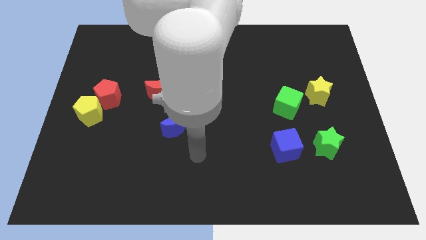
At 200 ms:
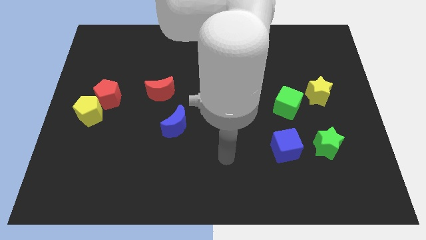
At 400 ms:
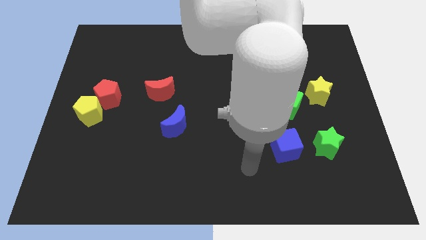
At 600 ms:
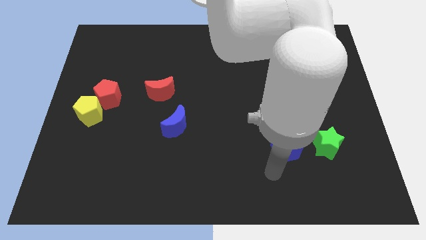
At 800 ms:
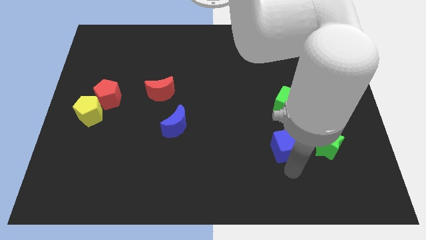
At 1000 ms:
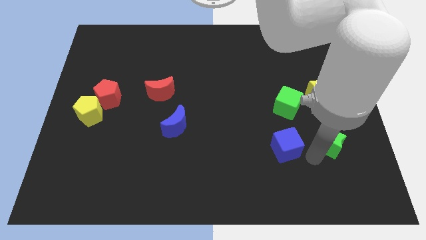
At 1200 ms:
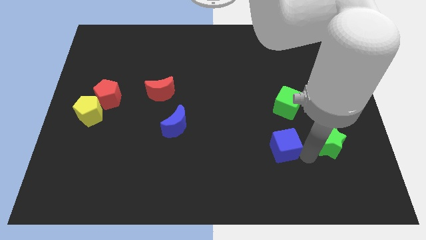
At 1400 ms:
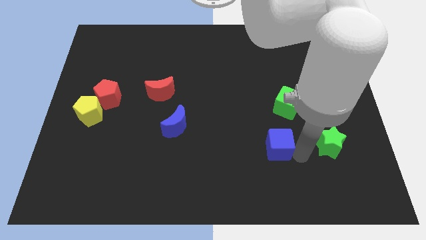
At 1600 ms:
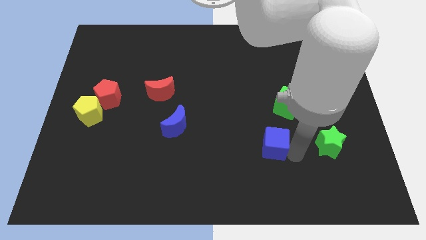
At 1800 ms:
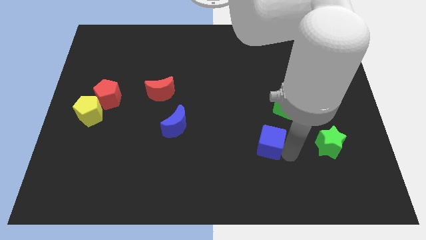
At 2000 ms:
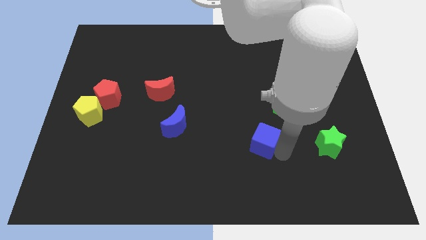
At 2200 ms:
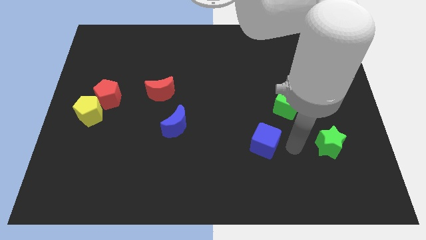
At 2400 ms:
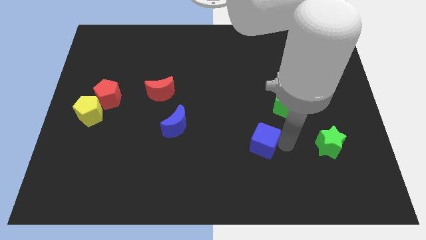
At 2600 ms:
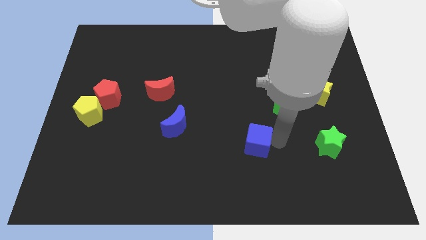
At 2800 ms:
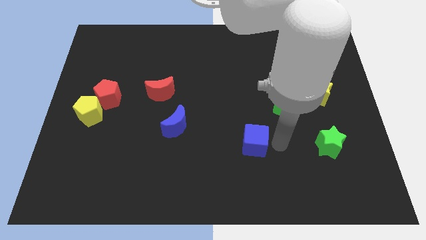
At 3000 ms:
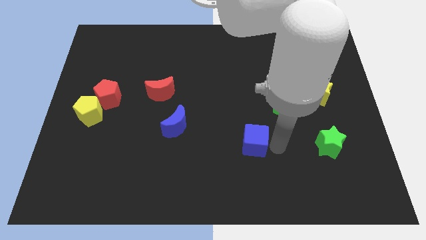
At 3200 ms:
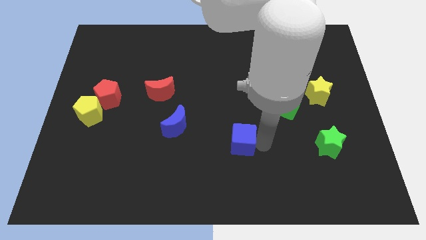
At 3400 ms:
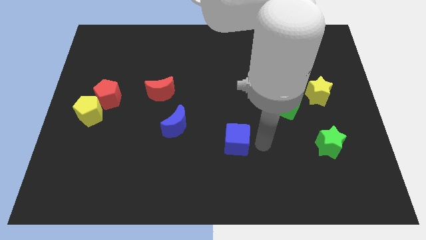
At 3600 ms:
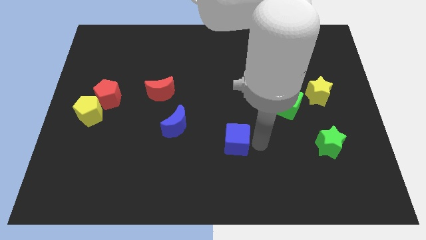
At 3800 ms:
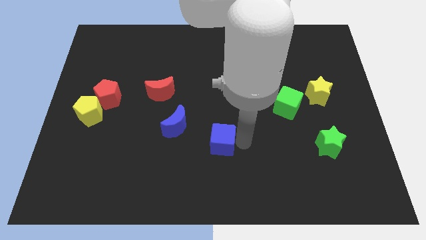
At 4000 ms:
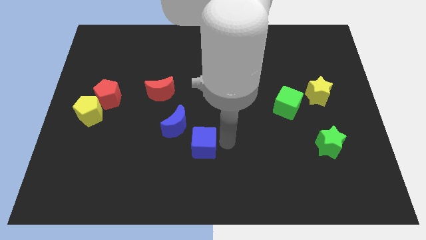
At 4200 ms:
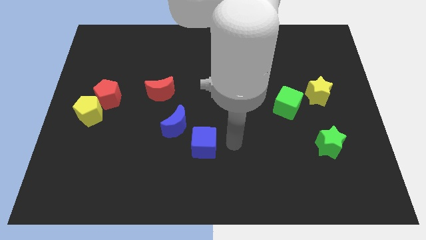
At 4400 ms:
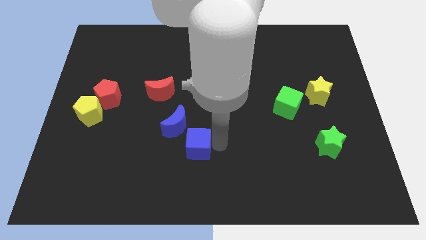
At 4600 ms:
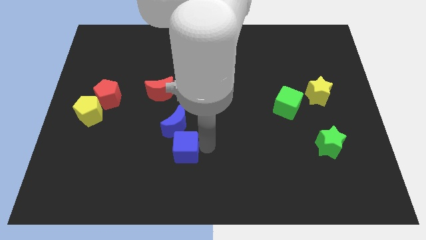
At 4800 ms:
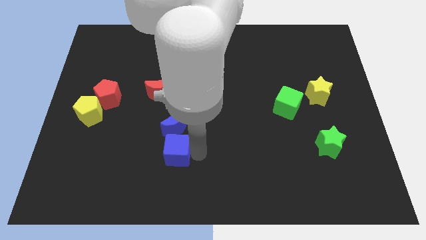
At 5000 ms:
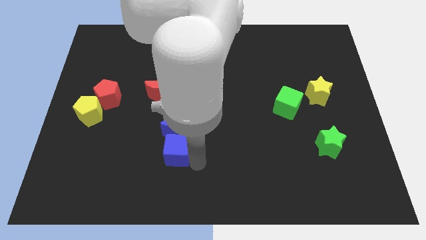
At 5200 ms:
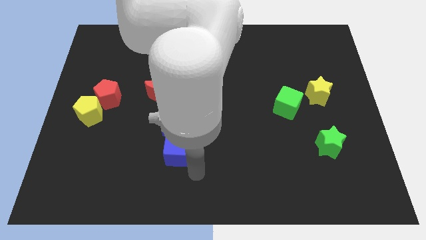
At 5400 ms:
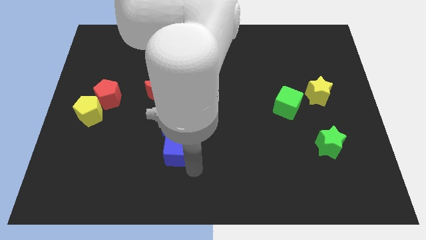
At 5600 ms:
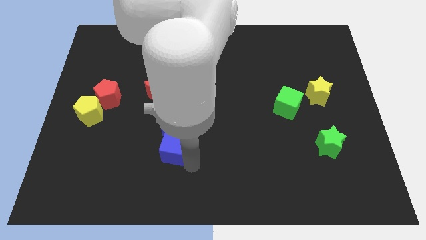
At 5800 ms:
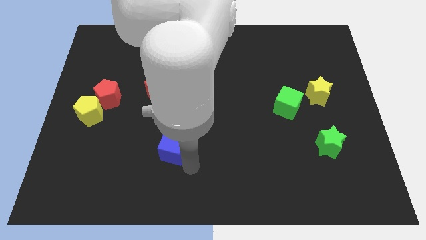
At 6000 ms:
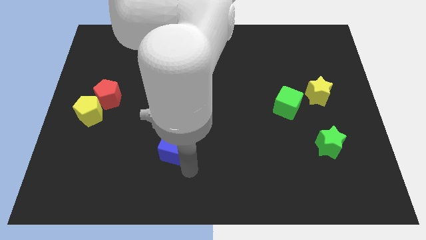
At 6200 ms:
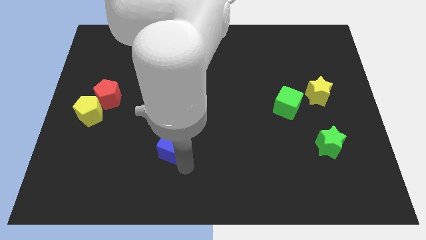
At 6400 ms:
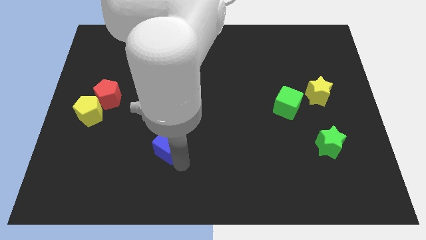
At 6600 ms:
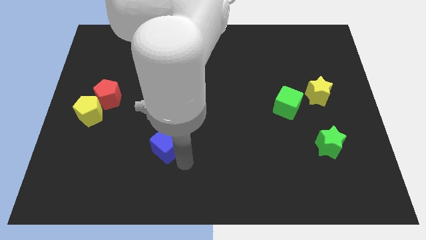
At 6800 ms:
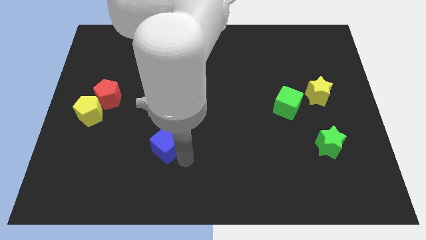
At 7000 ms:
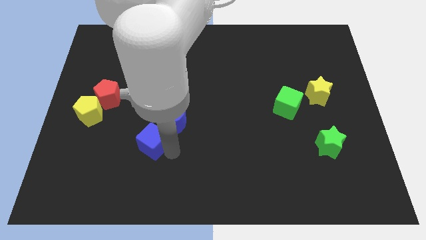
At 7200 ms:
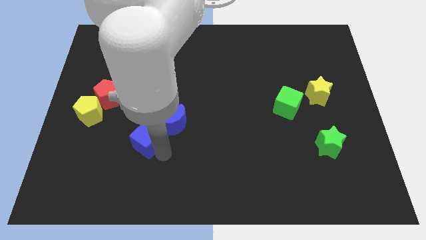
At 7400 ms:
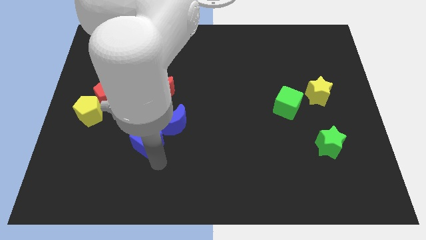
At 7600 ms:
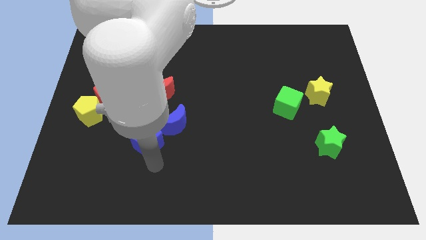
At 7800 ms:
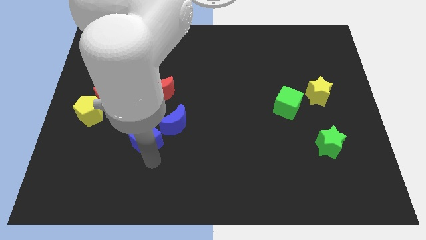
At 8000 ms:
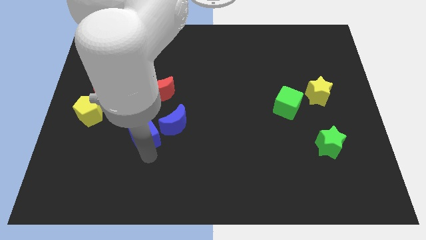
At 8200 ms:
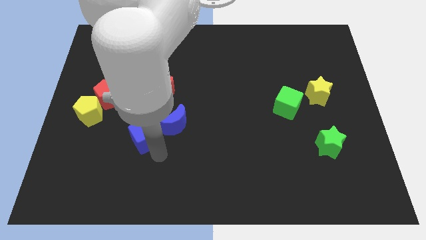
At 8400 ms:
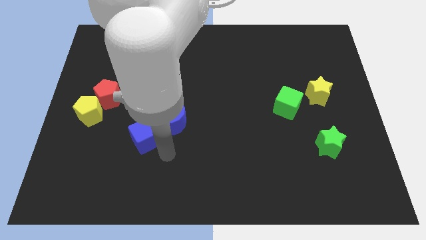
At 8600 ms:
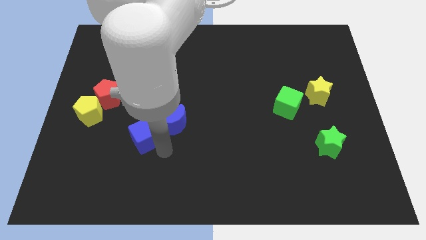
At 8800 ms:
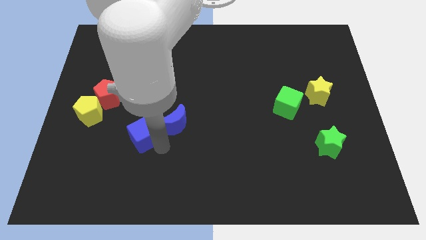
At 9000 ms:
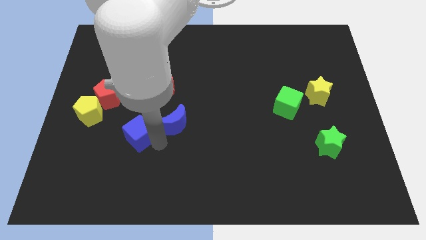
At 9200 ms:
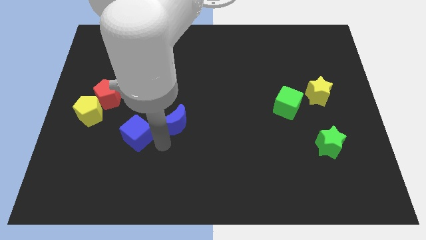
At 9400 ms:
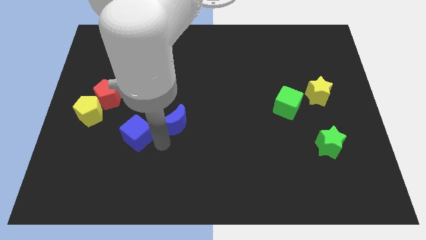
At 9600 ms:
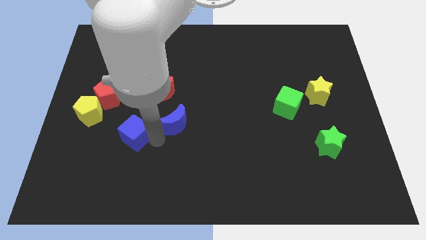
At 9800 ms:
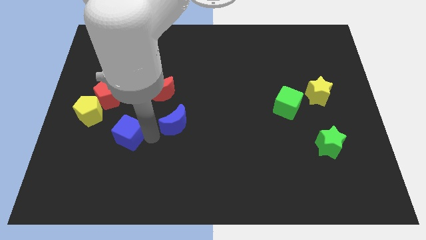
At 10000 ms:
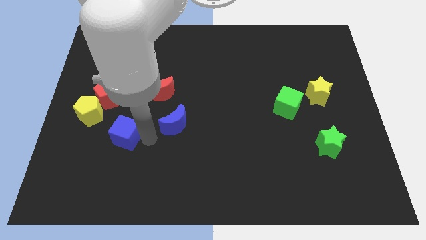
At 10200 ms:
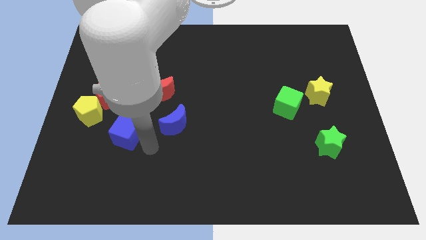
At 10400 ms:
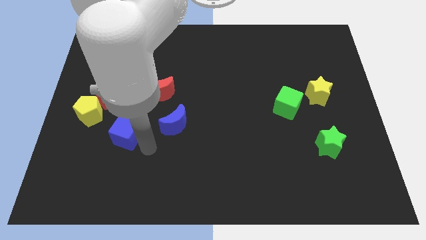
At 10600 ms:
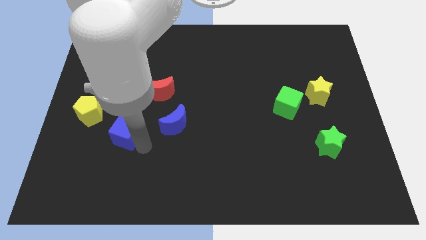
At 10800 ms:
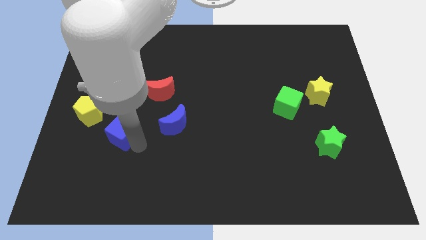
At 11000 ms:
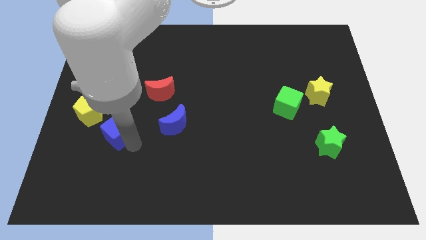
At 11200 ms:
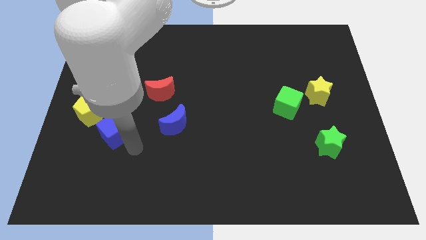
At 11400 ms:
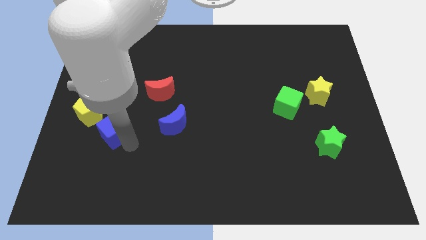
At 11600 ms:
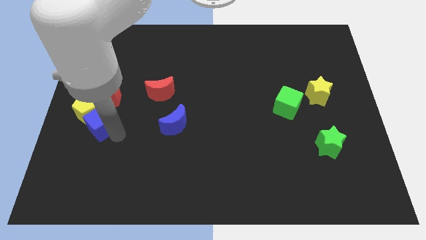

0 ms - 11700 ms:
move the blue cube next to the yellow pentagon

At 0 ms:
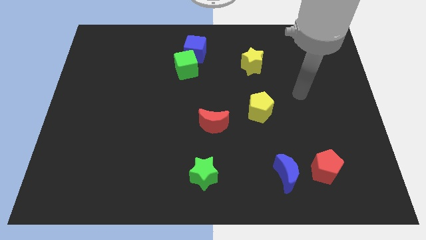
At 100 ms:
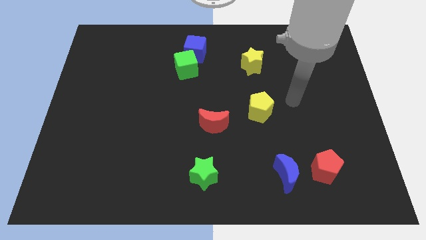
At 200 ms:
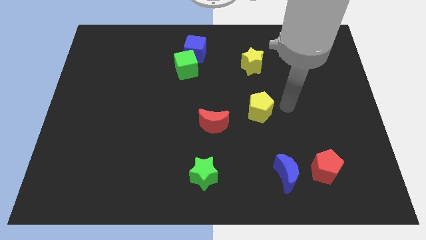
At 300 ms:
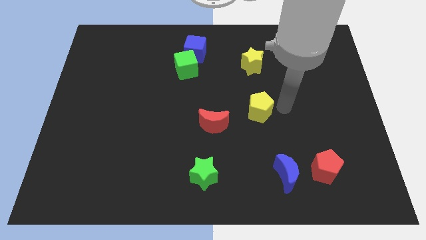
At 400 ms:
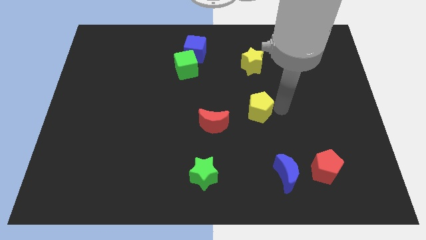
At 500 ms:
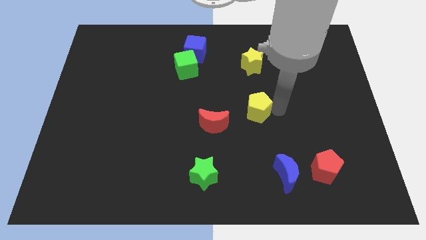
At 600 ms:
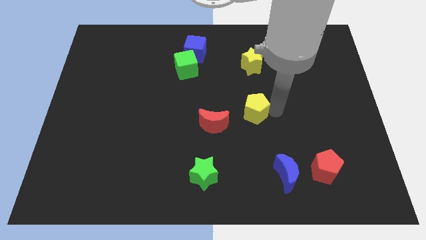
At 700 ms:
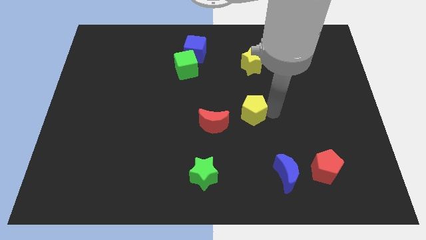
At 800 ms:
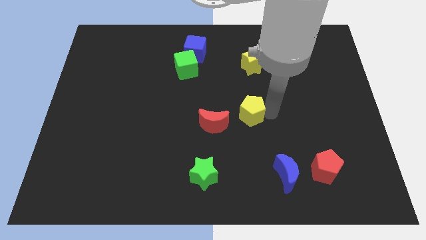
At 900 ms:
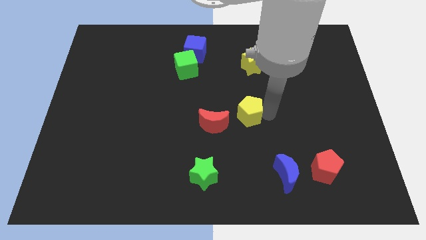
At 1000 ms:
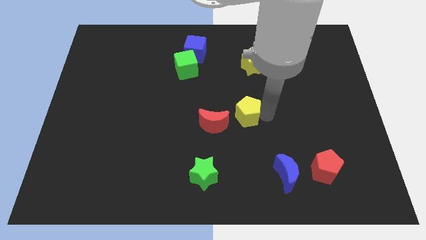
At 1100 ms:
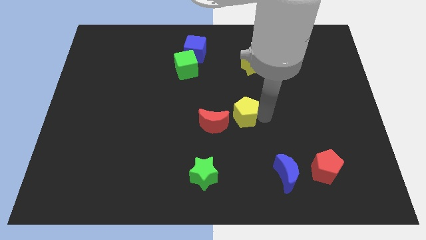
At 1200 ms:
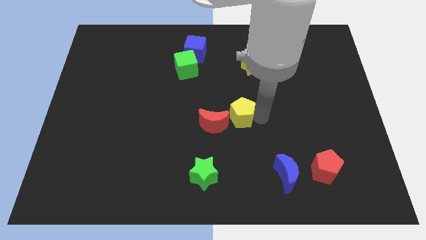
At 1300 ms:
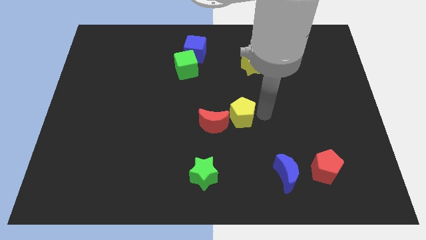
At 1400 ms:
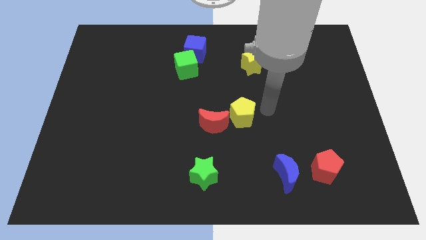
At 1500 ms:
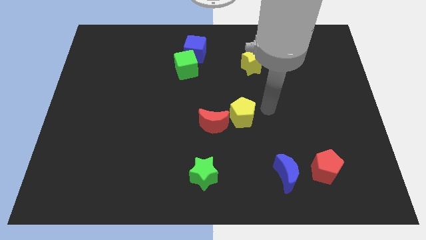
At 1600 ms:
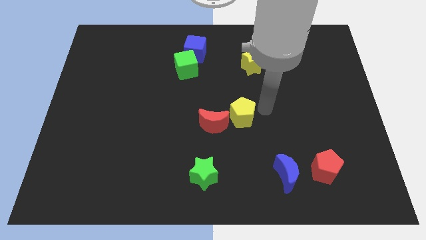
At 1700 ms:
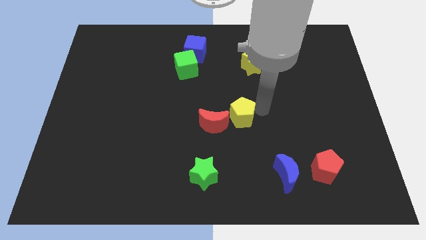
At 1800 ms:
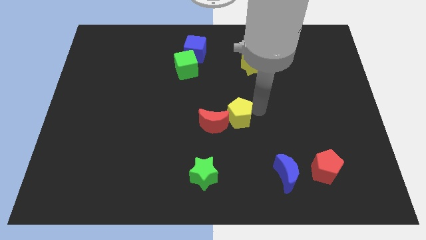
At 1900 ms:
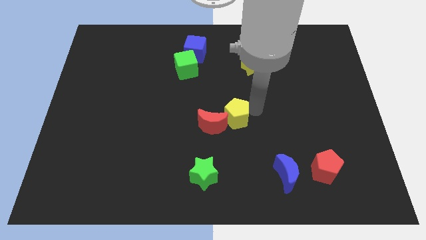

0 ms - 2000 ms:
move the yellow pentagon towards the red moon
